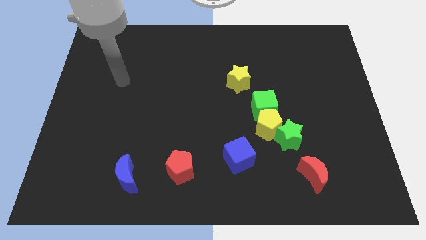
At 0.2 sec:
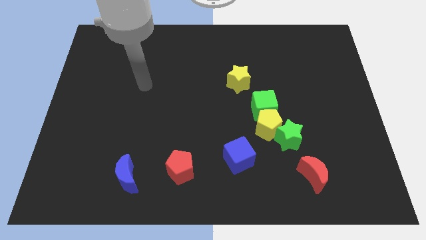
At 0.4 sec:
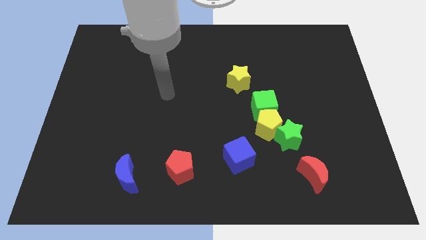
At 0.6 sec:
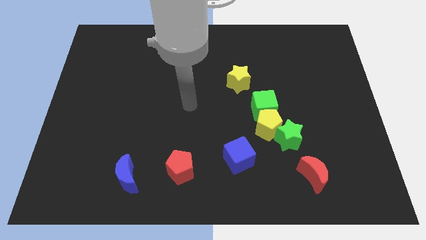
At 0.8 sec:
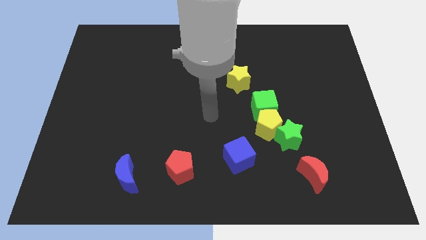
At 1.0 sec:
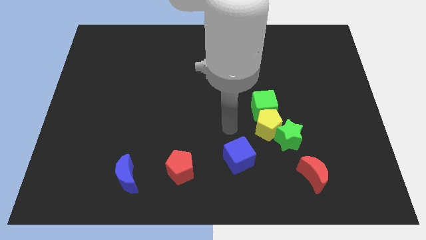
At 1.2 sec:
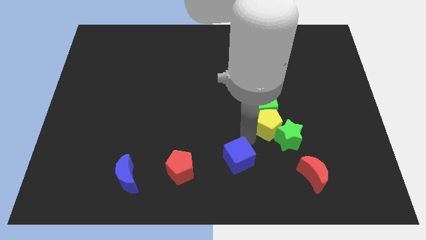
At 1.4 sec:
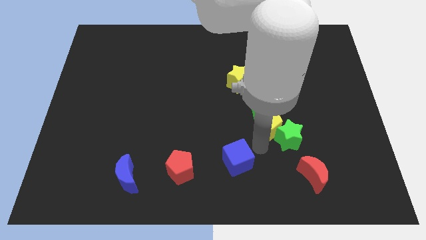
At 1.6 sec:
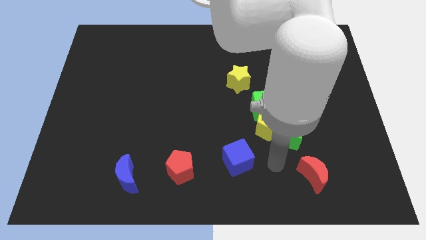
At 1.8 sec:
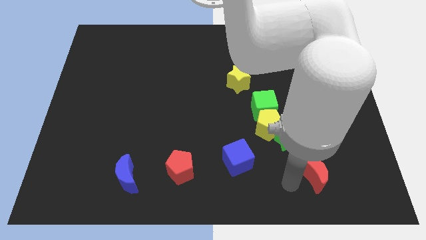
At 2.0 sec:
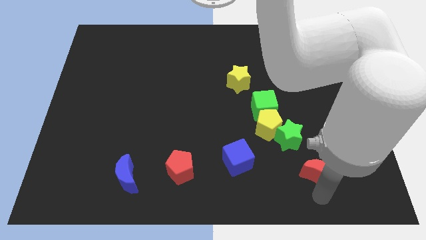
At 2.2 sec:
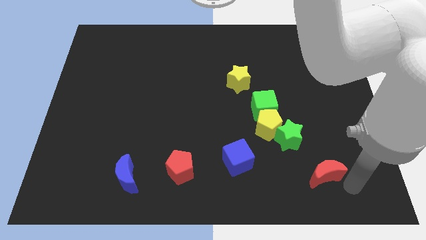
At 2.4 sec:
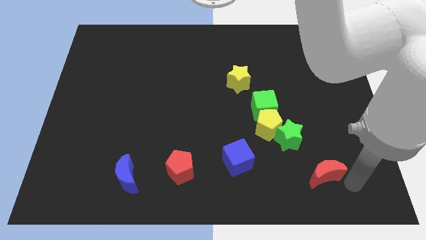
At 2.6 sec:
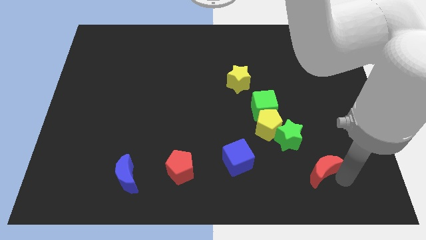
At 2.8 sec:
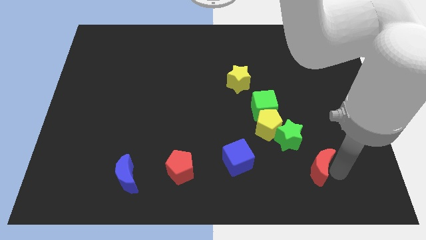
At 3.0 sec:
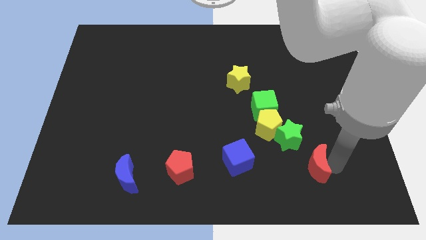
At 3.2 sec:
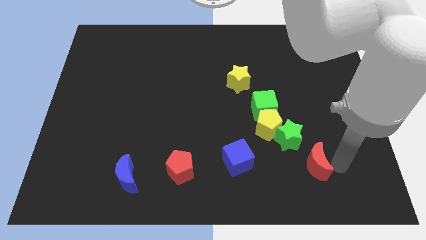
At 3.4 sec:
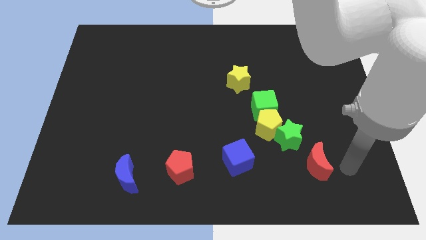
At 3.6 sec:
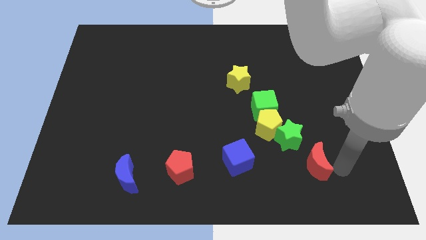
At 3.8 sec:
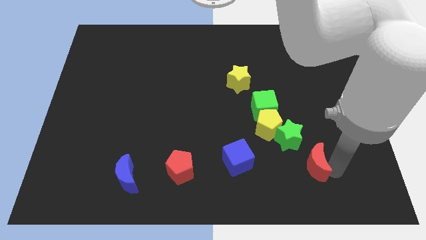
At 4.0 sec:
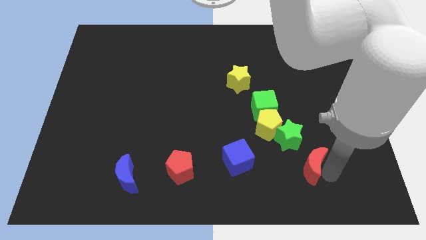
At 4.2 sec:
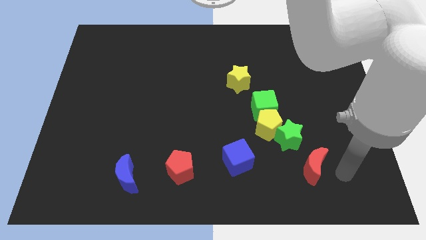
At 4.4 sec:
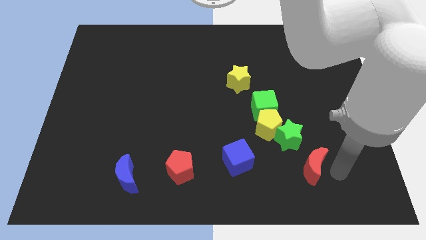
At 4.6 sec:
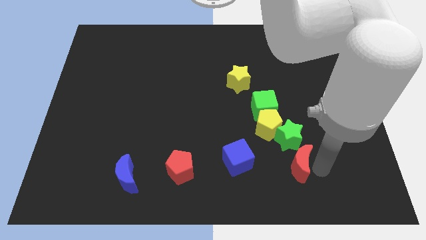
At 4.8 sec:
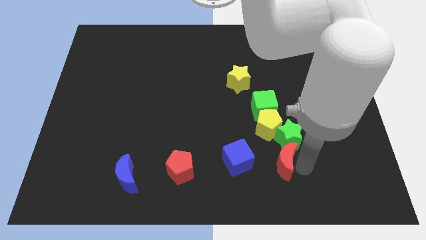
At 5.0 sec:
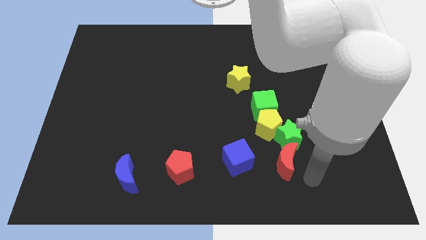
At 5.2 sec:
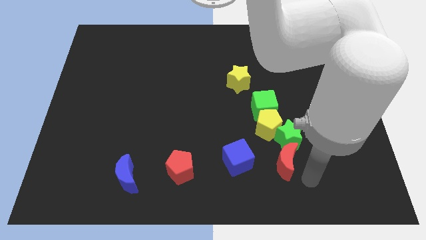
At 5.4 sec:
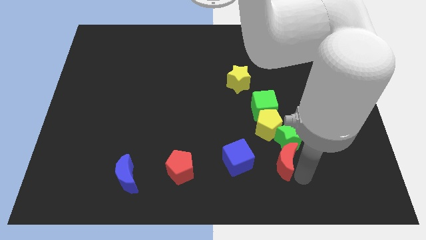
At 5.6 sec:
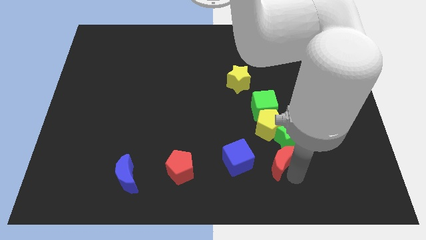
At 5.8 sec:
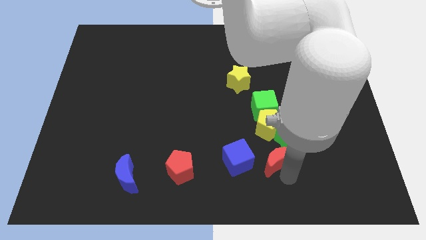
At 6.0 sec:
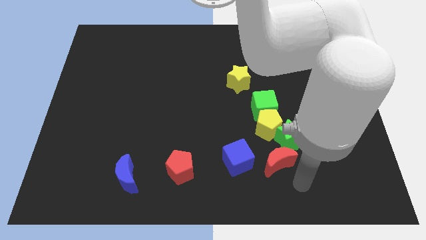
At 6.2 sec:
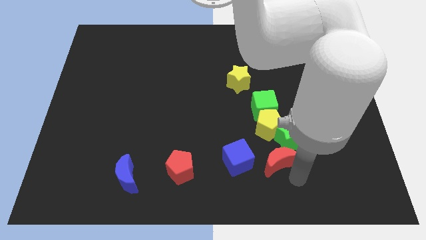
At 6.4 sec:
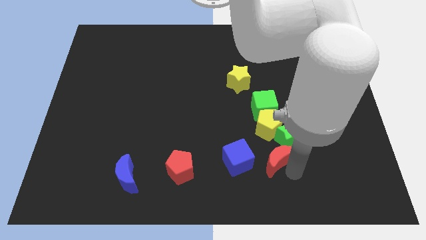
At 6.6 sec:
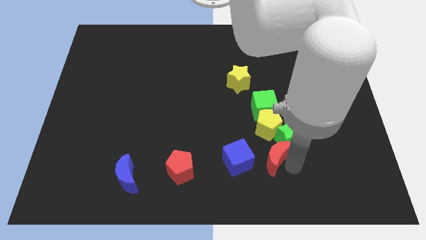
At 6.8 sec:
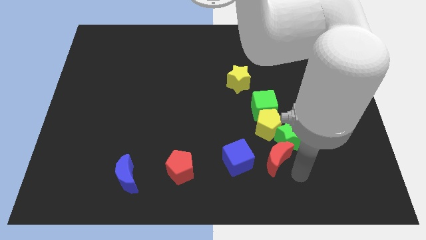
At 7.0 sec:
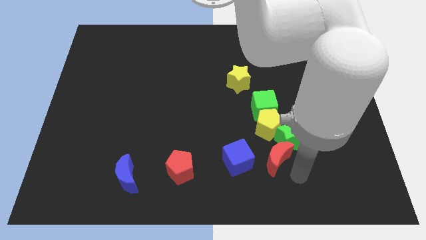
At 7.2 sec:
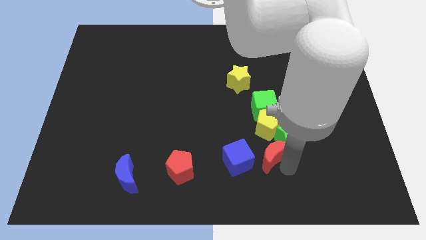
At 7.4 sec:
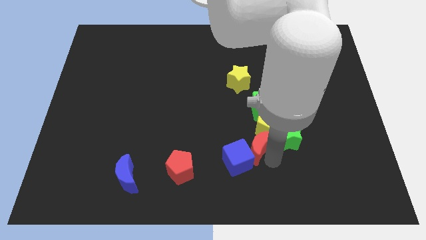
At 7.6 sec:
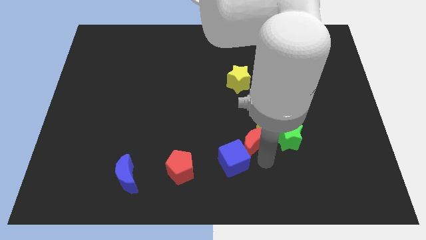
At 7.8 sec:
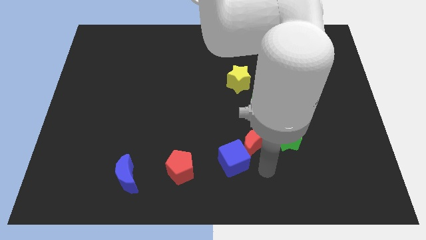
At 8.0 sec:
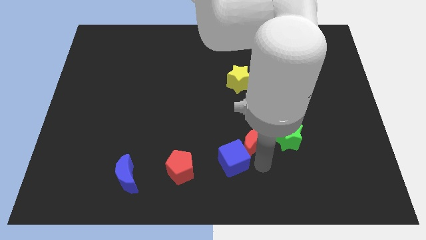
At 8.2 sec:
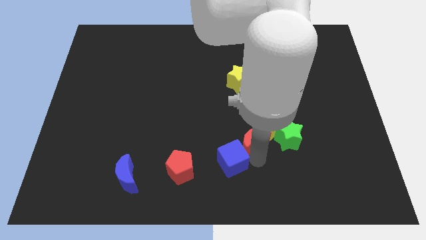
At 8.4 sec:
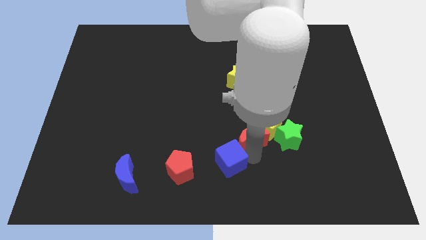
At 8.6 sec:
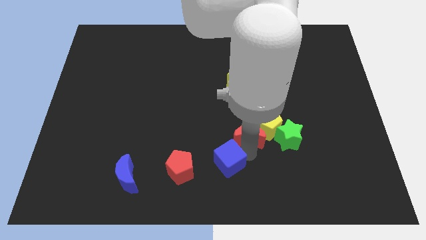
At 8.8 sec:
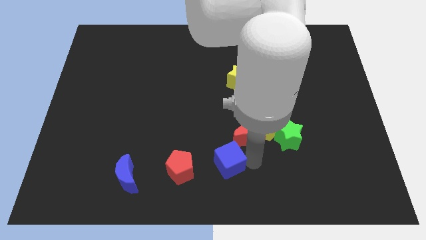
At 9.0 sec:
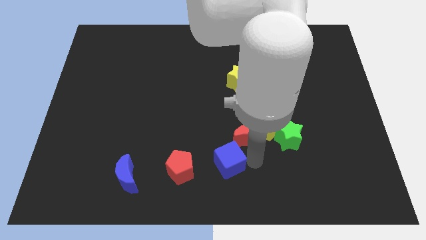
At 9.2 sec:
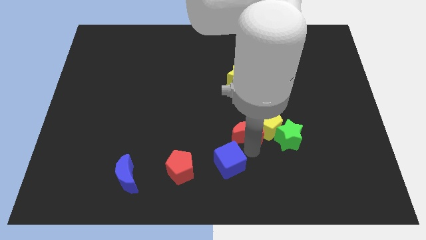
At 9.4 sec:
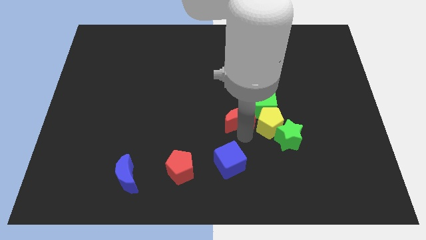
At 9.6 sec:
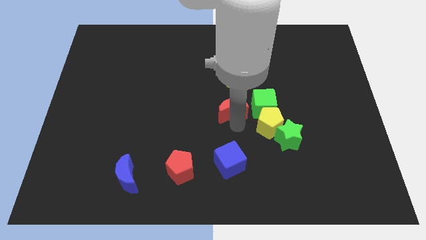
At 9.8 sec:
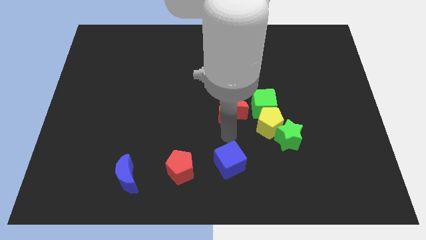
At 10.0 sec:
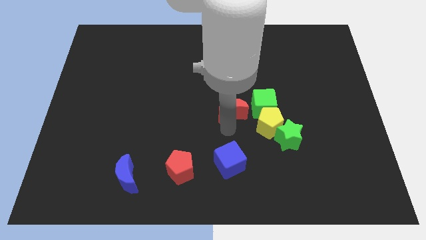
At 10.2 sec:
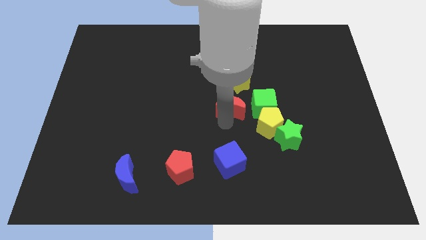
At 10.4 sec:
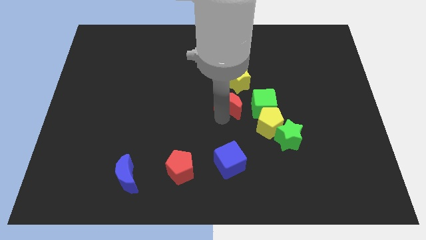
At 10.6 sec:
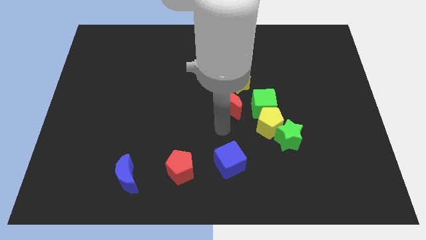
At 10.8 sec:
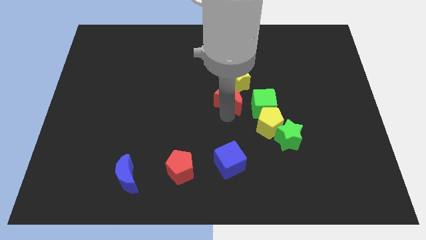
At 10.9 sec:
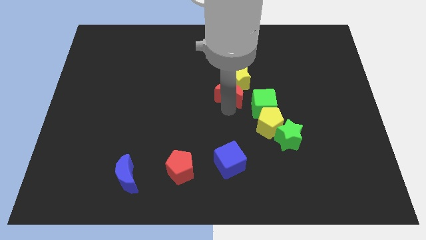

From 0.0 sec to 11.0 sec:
move the red moon next to the yellow star

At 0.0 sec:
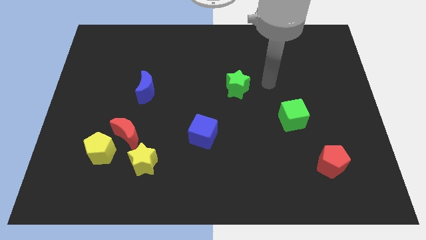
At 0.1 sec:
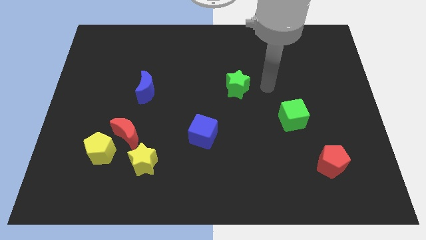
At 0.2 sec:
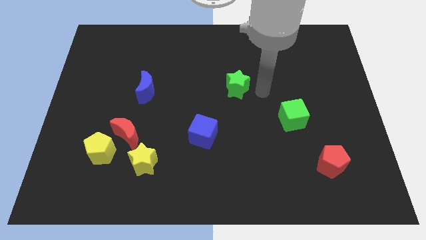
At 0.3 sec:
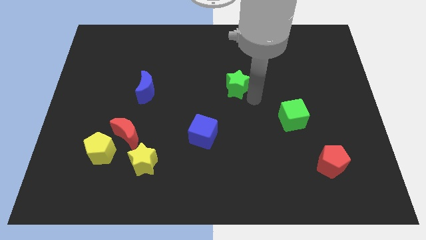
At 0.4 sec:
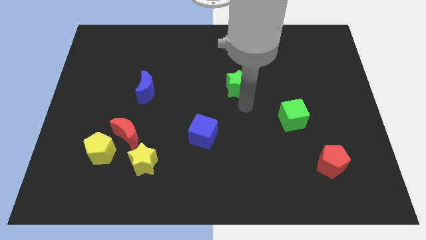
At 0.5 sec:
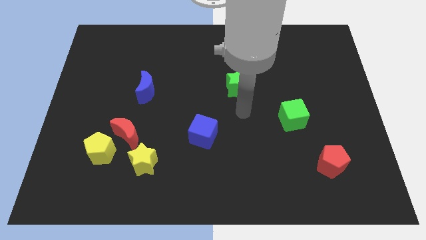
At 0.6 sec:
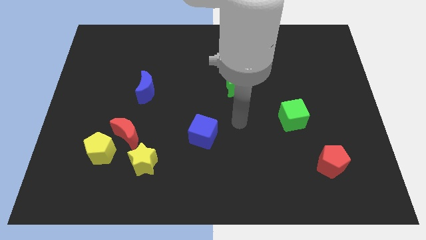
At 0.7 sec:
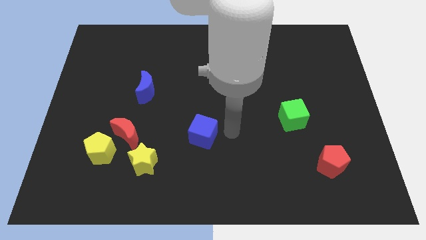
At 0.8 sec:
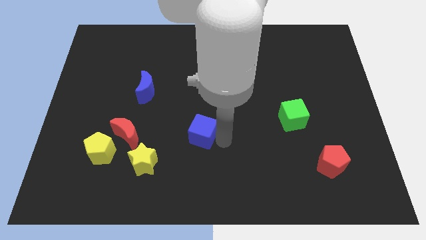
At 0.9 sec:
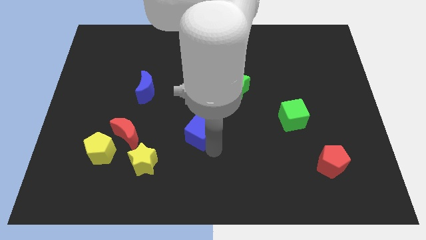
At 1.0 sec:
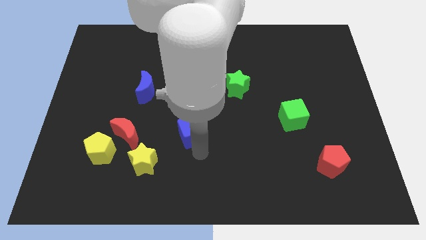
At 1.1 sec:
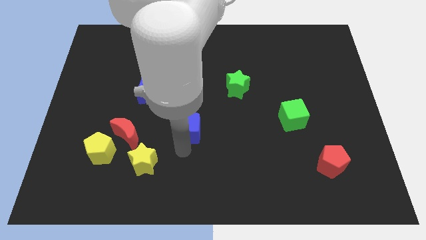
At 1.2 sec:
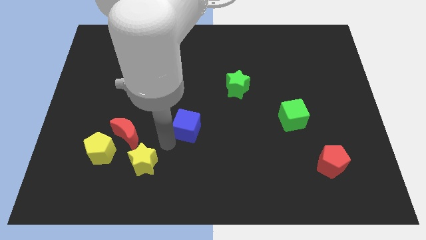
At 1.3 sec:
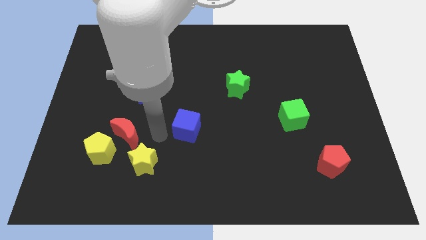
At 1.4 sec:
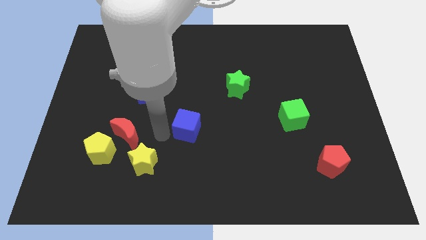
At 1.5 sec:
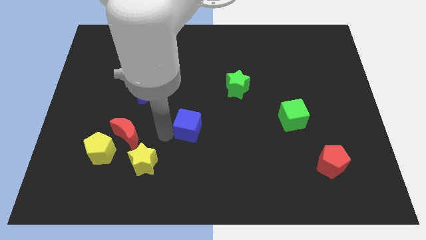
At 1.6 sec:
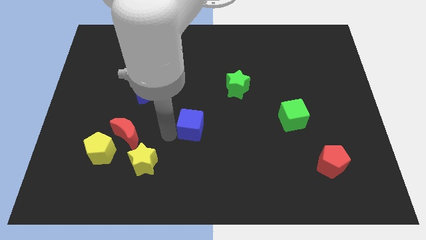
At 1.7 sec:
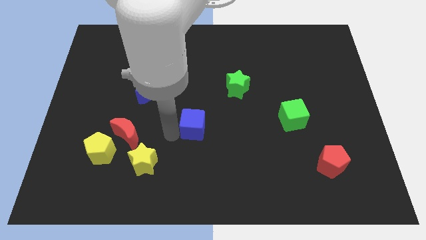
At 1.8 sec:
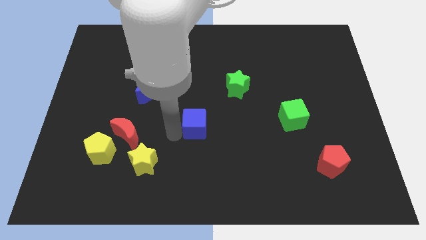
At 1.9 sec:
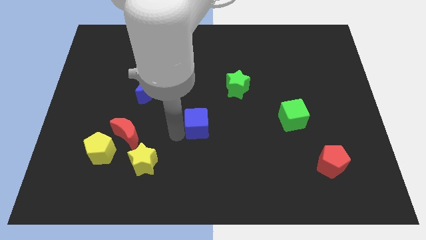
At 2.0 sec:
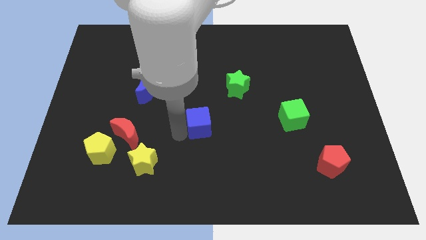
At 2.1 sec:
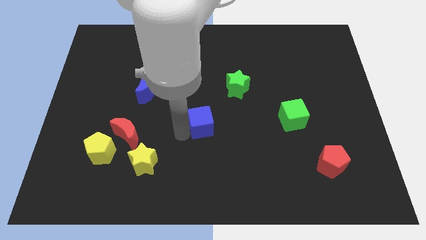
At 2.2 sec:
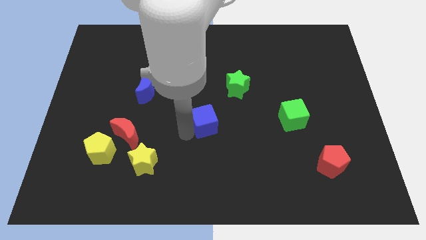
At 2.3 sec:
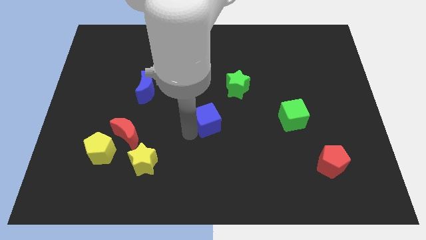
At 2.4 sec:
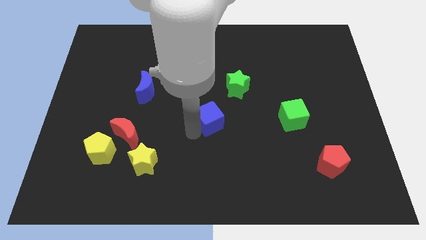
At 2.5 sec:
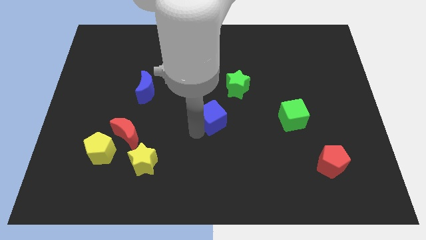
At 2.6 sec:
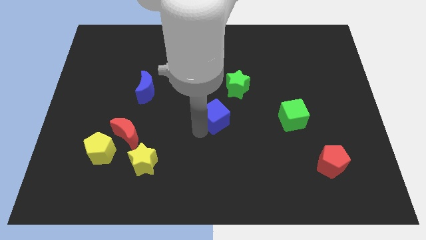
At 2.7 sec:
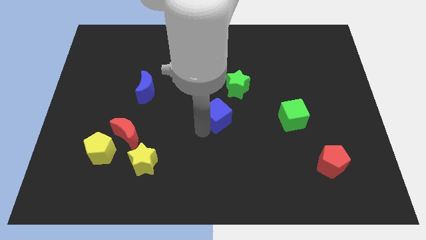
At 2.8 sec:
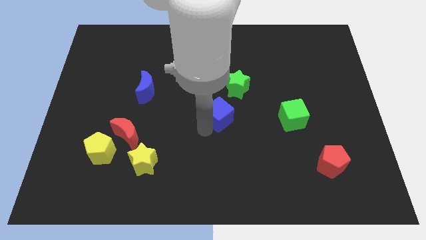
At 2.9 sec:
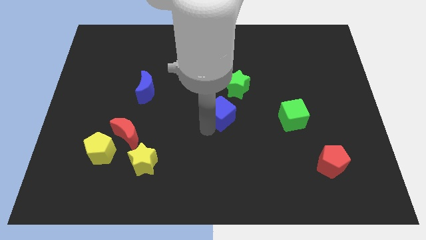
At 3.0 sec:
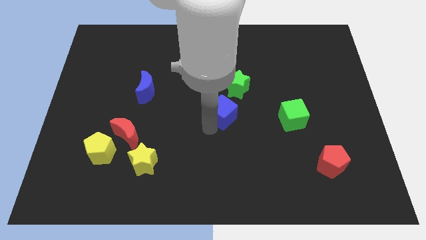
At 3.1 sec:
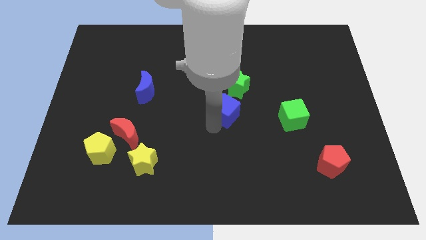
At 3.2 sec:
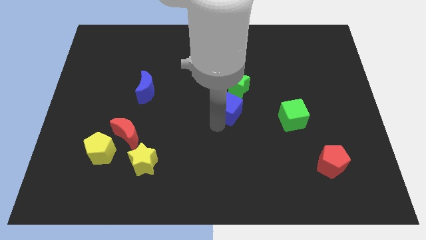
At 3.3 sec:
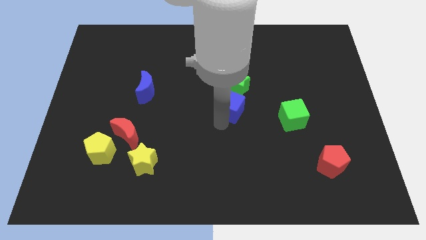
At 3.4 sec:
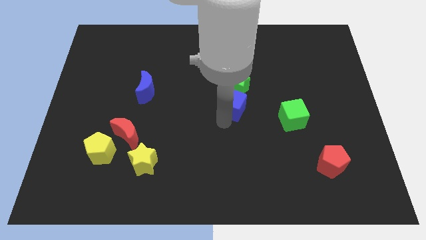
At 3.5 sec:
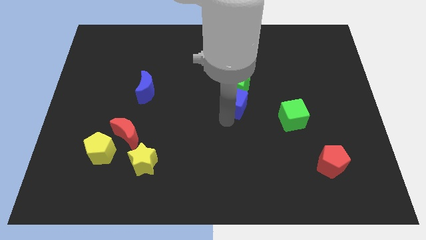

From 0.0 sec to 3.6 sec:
push the blue cube close to the green star
